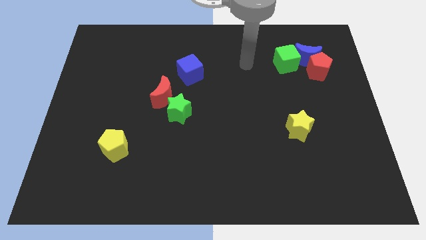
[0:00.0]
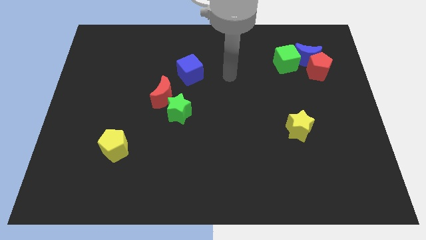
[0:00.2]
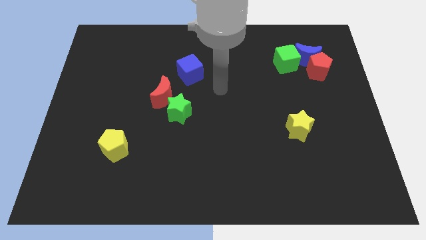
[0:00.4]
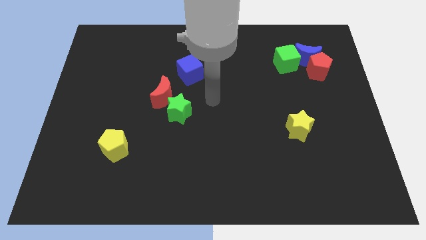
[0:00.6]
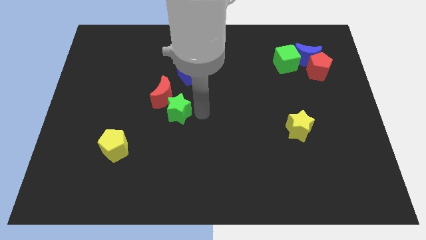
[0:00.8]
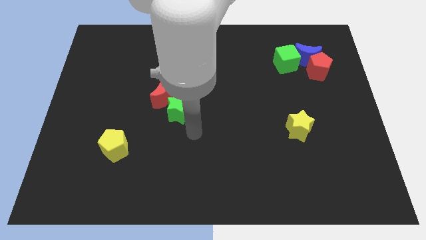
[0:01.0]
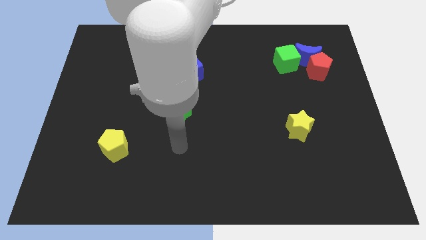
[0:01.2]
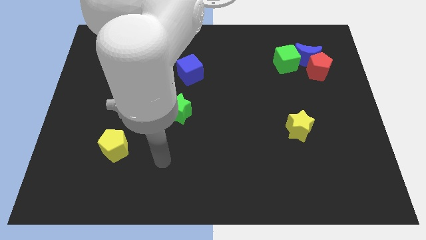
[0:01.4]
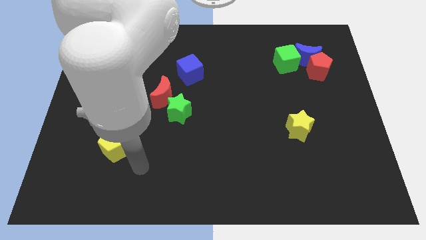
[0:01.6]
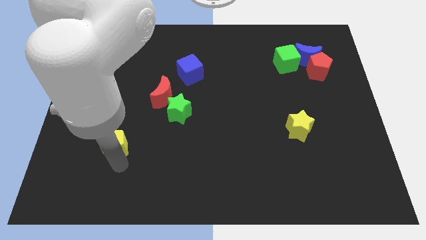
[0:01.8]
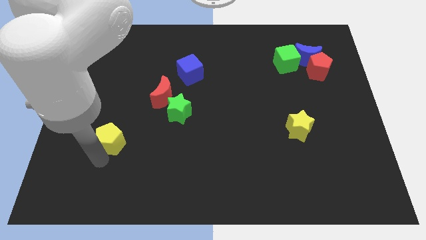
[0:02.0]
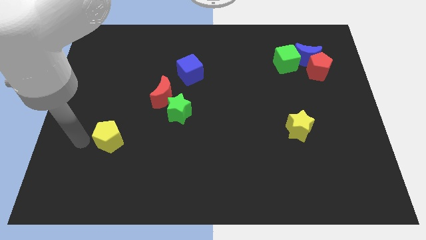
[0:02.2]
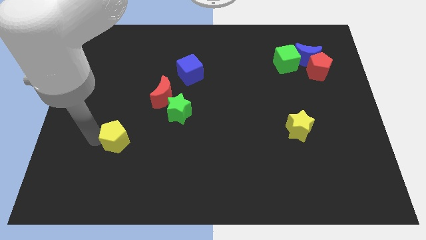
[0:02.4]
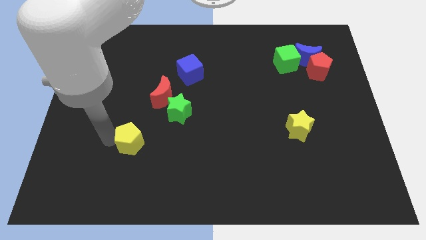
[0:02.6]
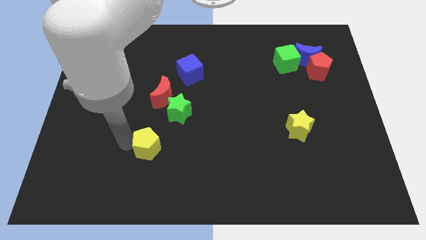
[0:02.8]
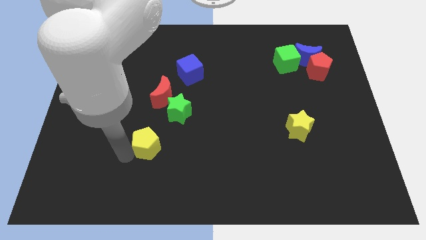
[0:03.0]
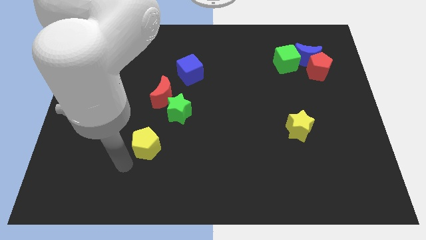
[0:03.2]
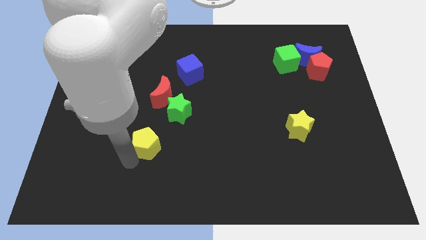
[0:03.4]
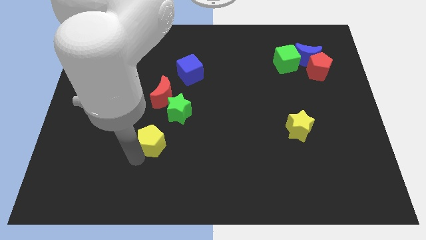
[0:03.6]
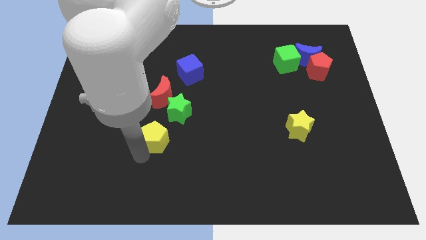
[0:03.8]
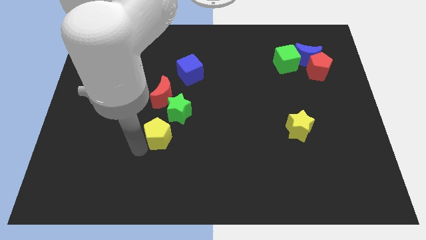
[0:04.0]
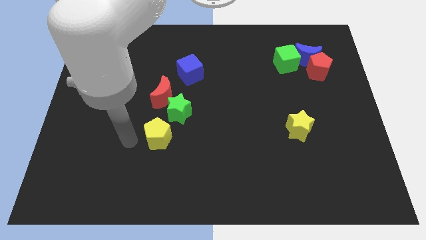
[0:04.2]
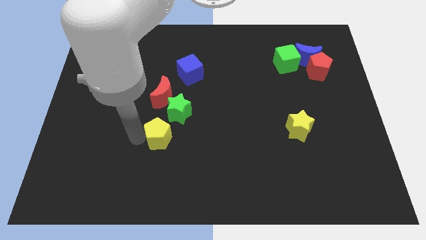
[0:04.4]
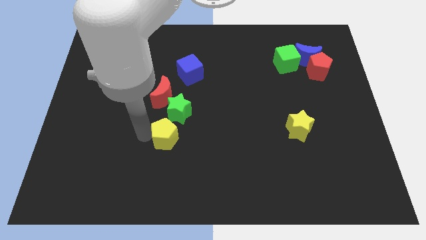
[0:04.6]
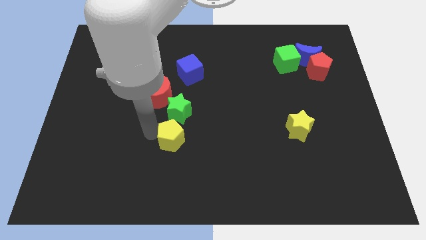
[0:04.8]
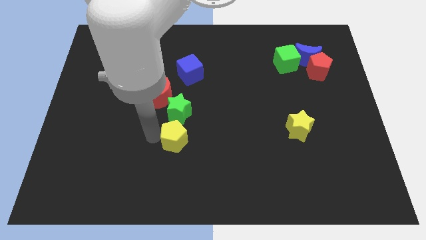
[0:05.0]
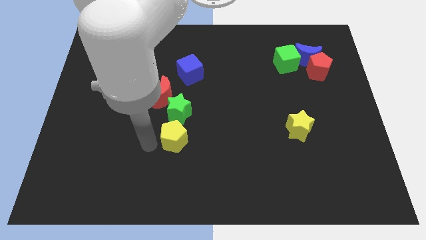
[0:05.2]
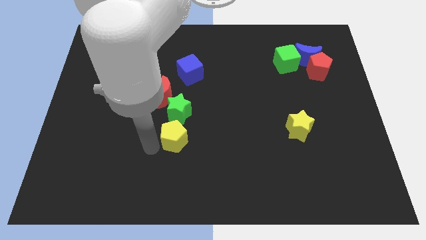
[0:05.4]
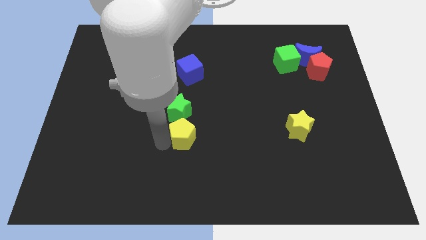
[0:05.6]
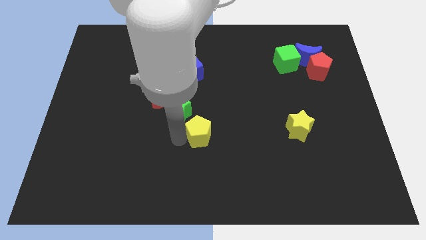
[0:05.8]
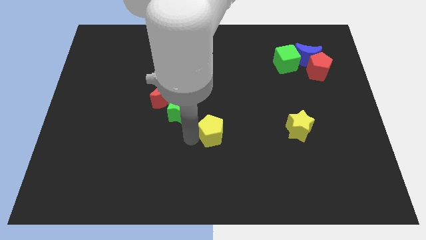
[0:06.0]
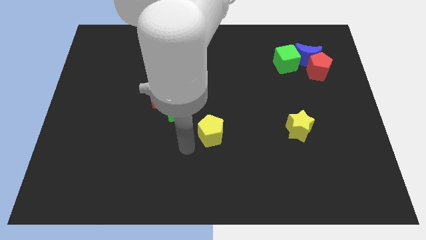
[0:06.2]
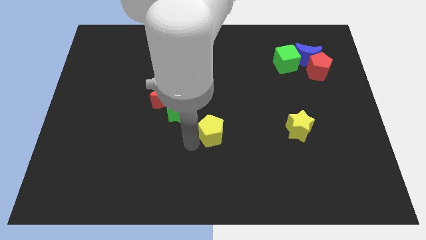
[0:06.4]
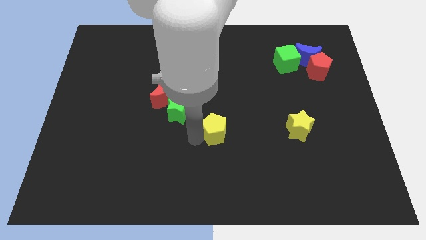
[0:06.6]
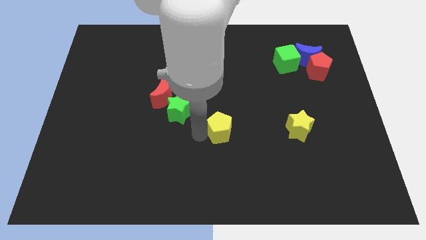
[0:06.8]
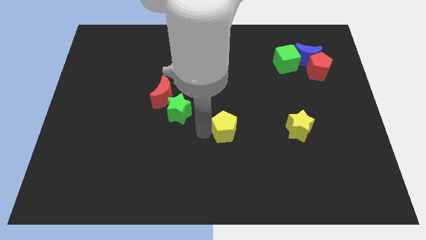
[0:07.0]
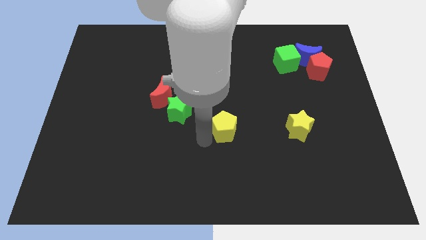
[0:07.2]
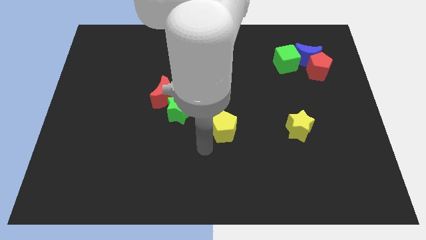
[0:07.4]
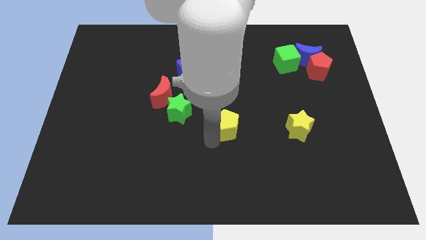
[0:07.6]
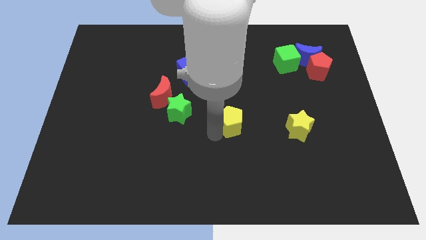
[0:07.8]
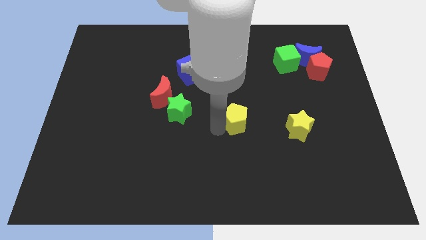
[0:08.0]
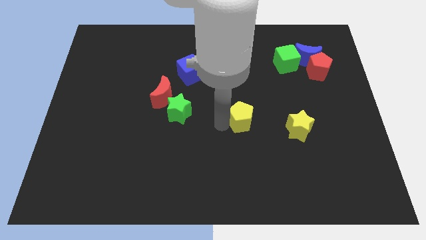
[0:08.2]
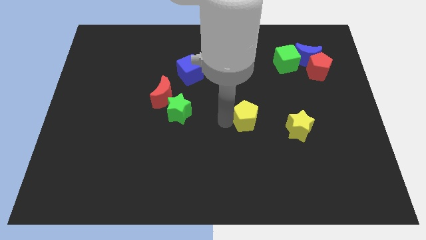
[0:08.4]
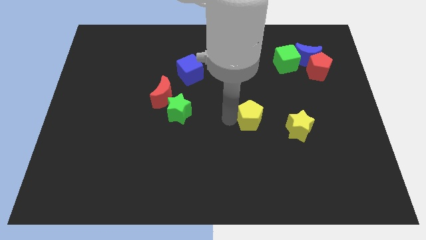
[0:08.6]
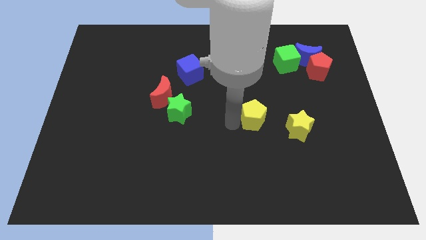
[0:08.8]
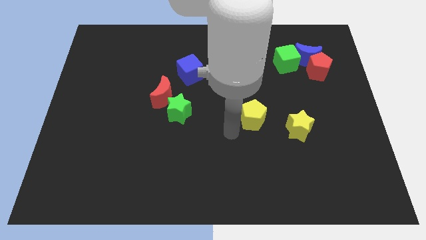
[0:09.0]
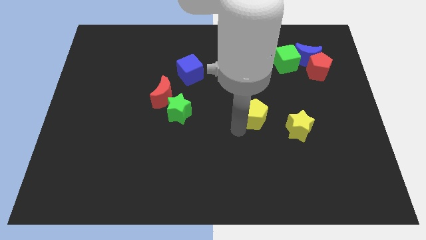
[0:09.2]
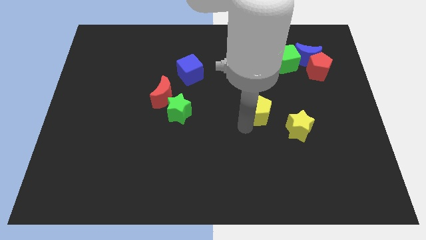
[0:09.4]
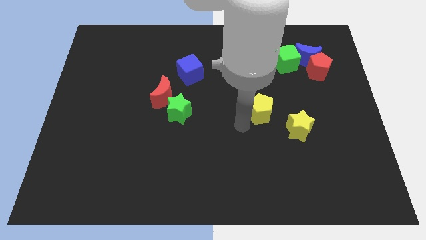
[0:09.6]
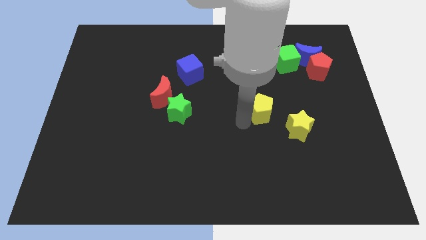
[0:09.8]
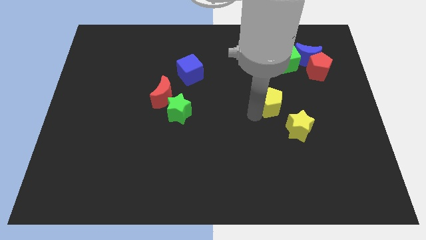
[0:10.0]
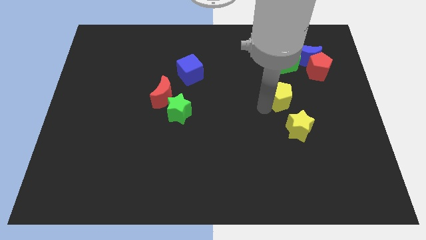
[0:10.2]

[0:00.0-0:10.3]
move the yellow pentagon to the bottom side of the green cube

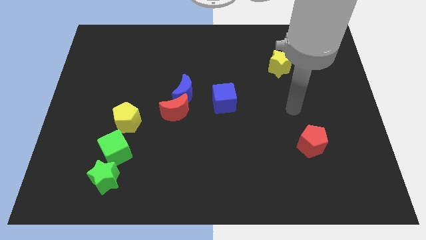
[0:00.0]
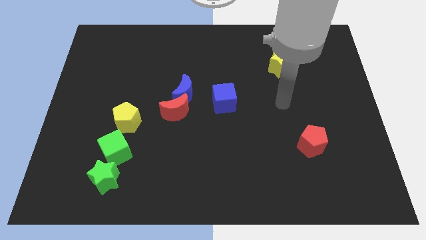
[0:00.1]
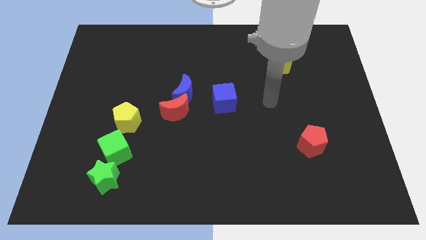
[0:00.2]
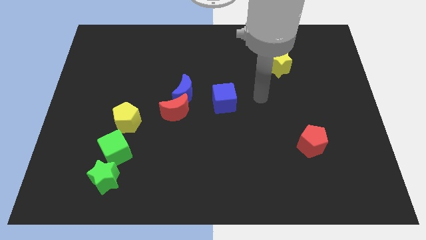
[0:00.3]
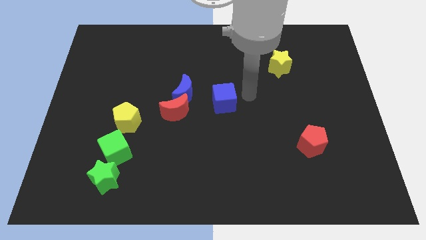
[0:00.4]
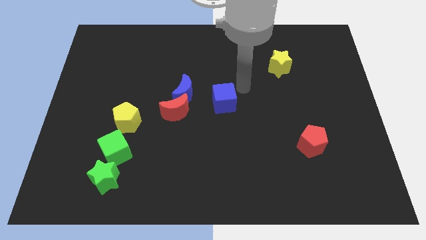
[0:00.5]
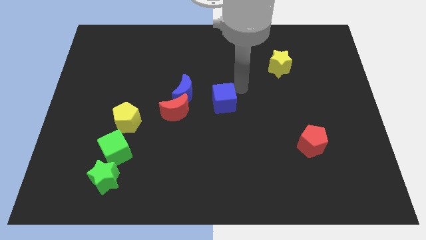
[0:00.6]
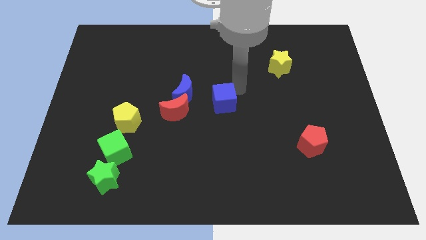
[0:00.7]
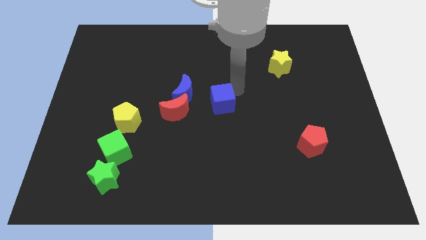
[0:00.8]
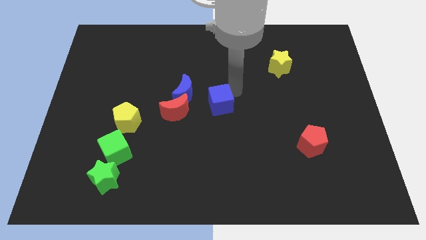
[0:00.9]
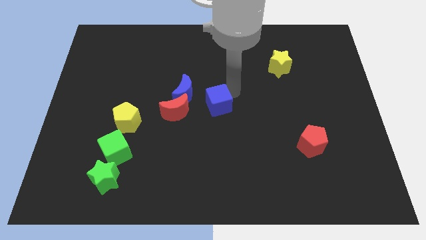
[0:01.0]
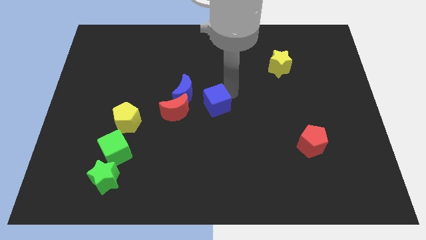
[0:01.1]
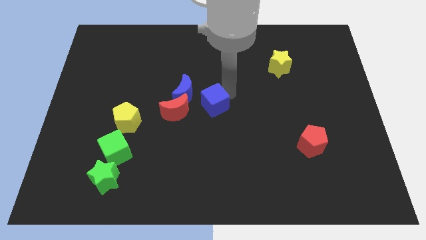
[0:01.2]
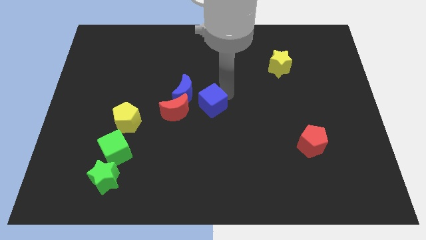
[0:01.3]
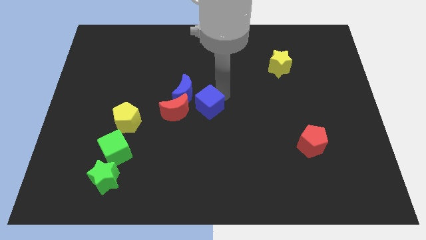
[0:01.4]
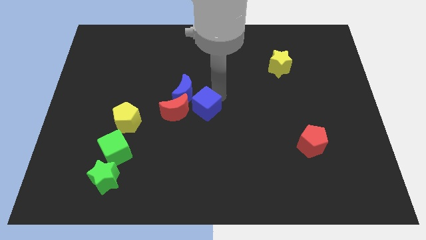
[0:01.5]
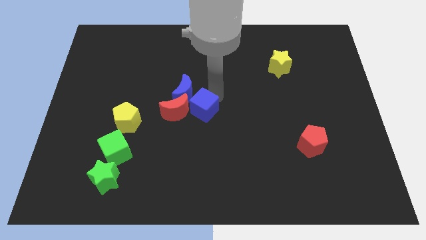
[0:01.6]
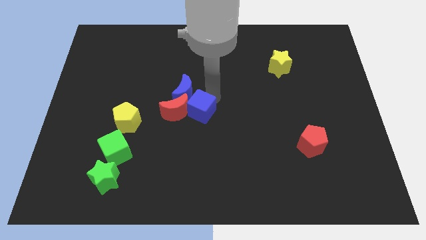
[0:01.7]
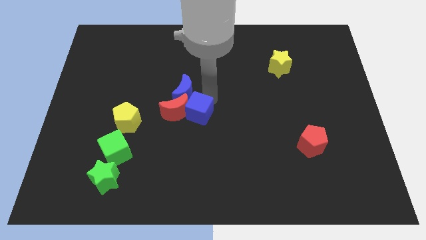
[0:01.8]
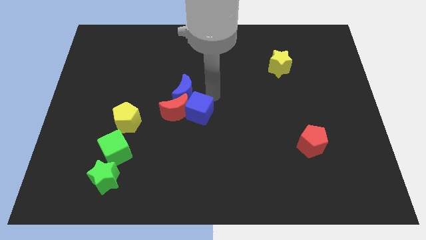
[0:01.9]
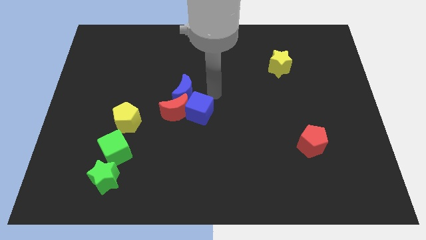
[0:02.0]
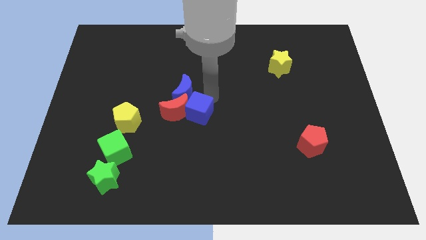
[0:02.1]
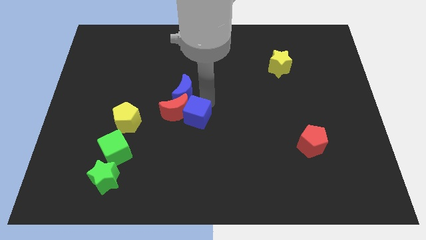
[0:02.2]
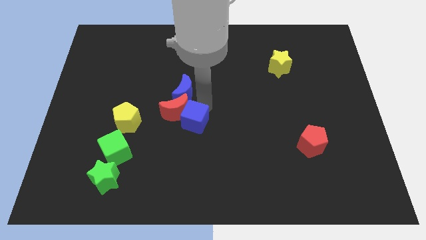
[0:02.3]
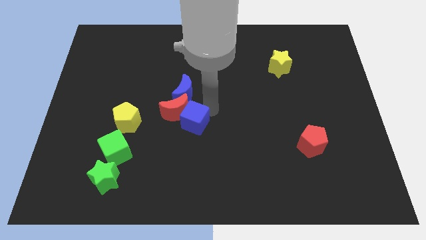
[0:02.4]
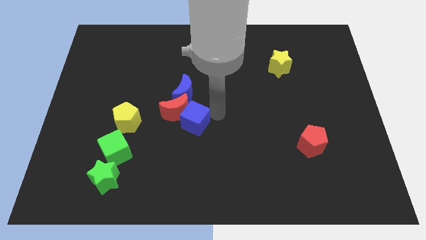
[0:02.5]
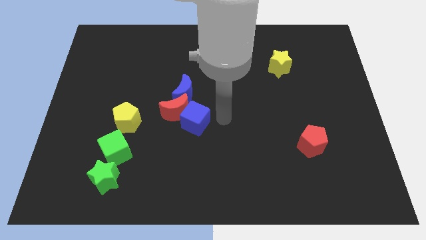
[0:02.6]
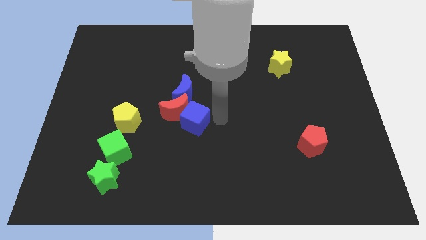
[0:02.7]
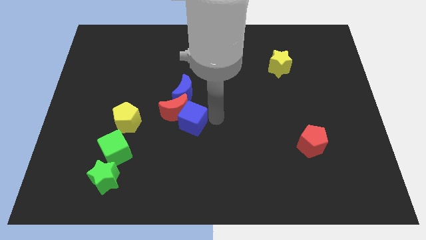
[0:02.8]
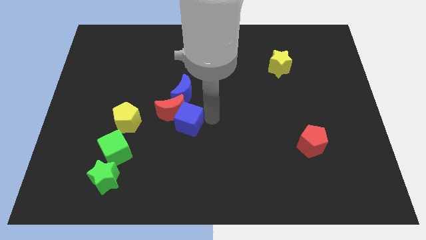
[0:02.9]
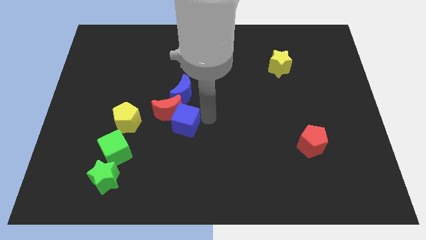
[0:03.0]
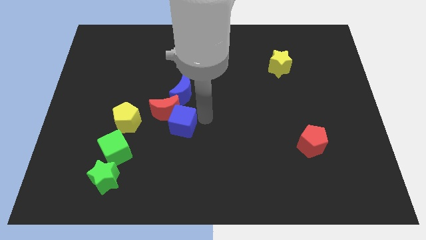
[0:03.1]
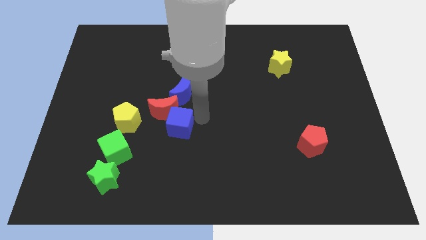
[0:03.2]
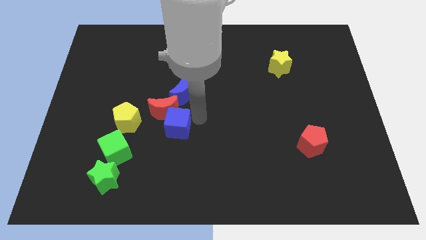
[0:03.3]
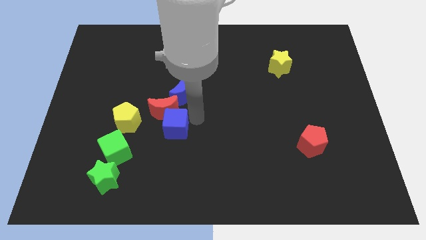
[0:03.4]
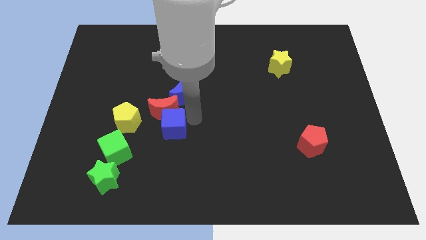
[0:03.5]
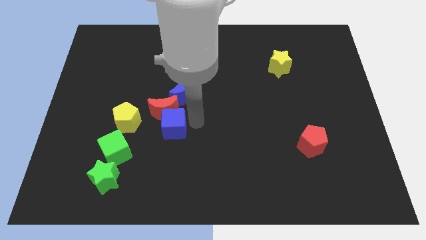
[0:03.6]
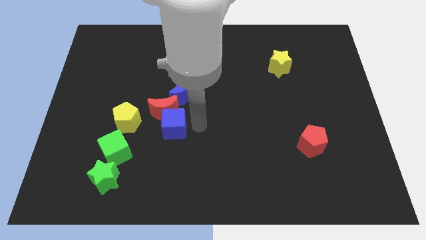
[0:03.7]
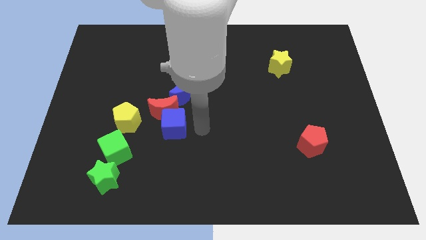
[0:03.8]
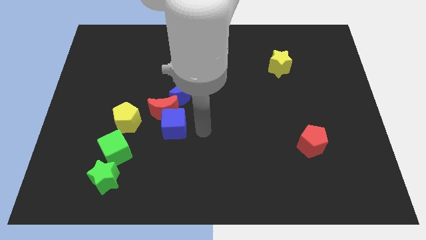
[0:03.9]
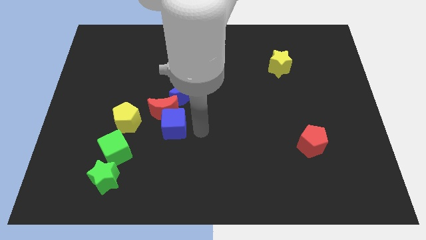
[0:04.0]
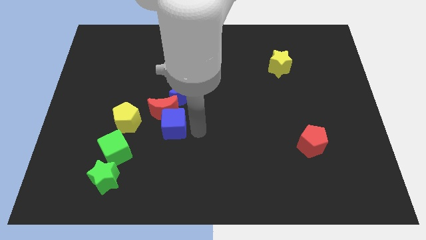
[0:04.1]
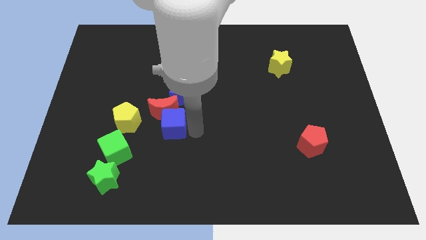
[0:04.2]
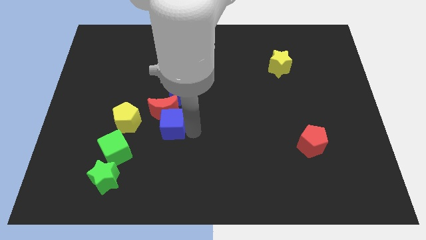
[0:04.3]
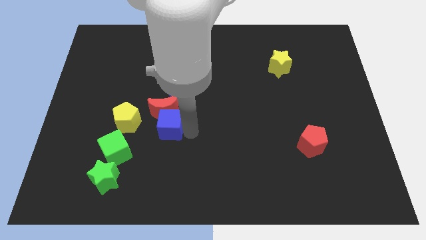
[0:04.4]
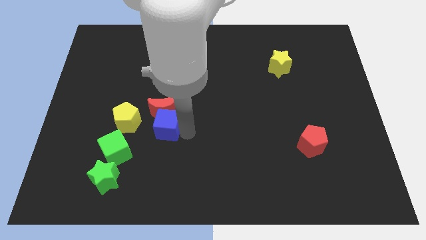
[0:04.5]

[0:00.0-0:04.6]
slide the blue cube to the bottom left side of the blue moon
